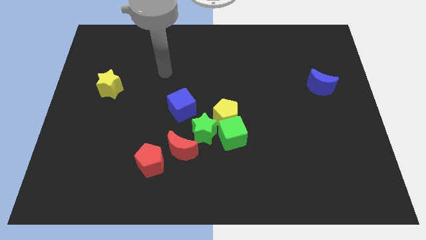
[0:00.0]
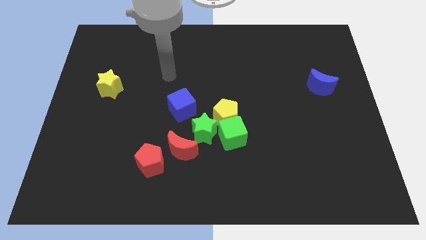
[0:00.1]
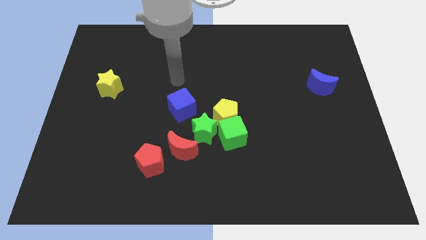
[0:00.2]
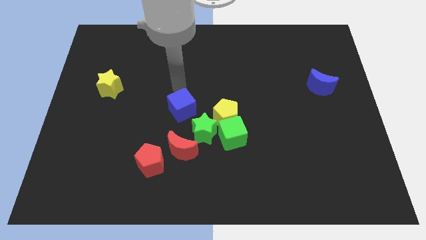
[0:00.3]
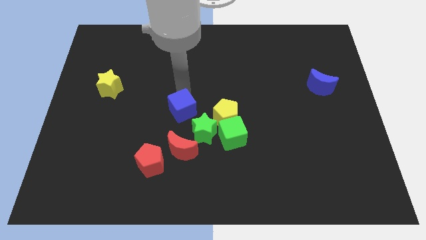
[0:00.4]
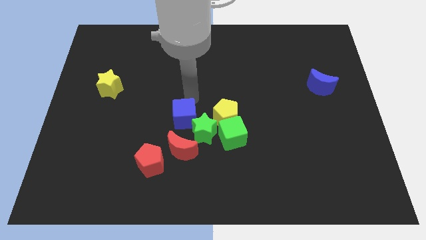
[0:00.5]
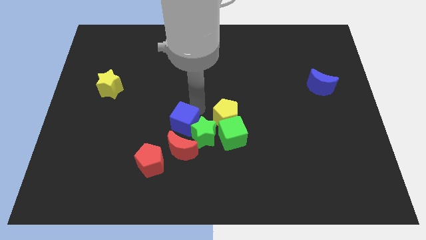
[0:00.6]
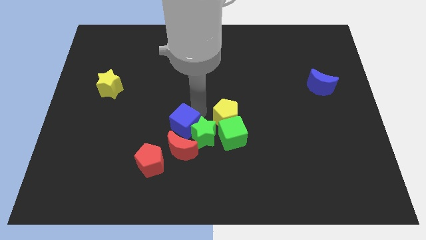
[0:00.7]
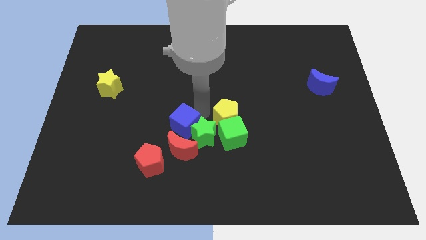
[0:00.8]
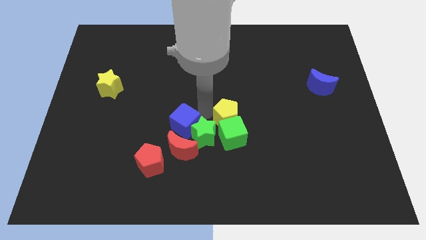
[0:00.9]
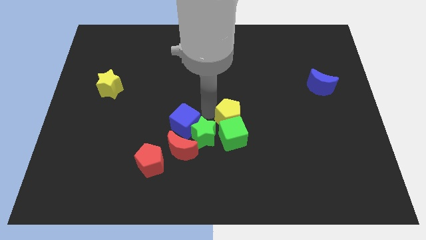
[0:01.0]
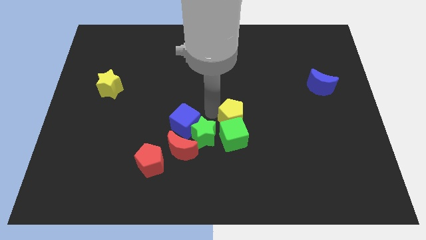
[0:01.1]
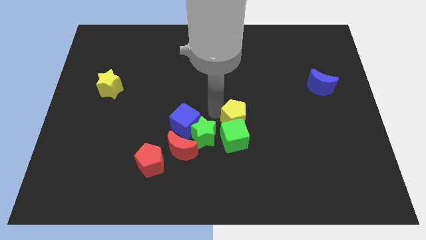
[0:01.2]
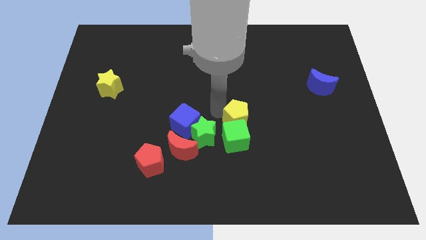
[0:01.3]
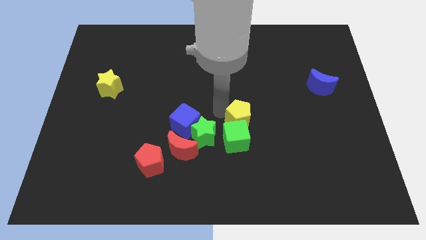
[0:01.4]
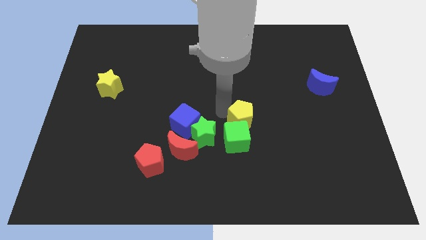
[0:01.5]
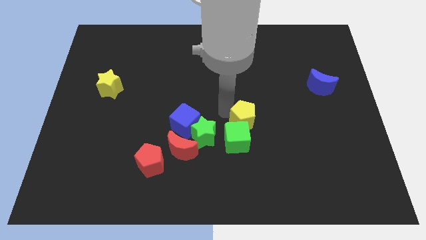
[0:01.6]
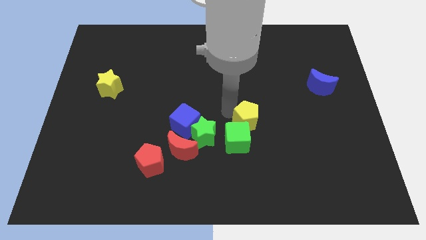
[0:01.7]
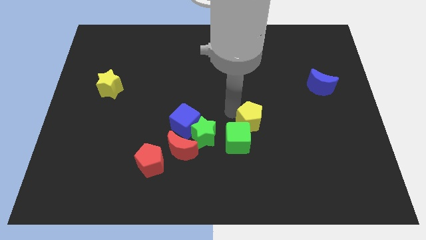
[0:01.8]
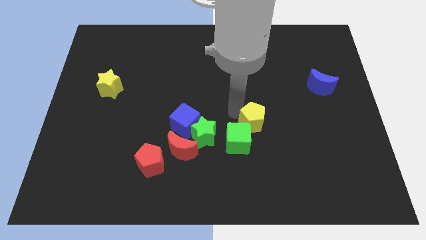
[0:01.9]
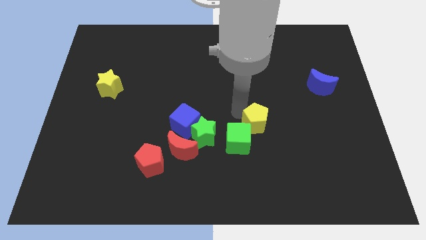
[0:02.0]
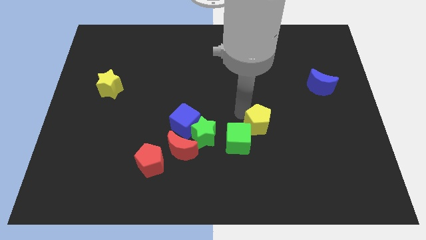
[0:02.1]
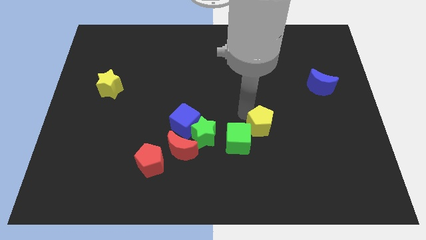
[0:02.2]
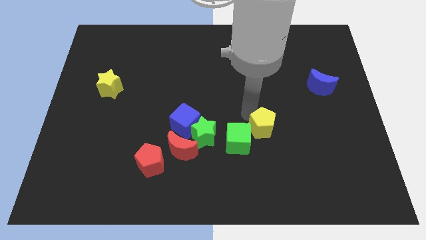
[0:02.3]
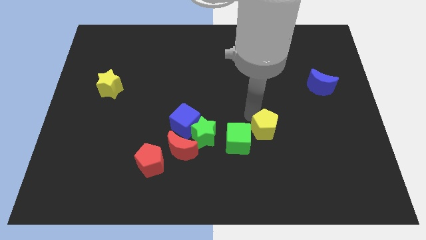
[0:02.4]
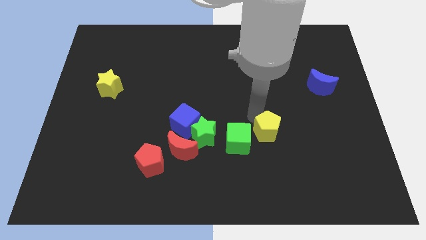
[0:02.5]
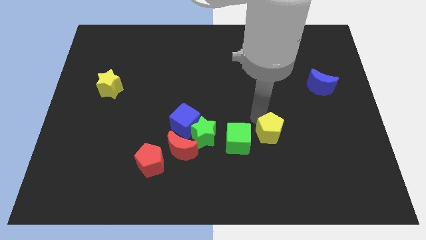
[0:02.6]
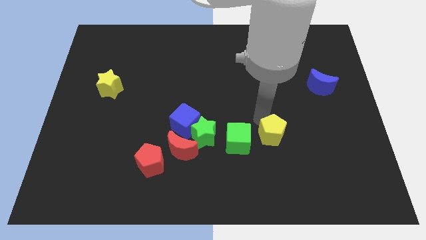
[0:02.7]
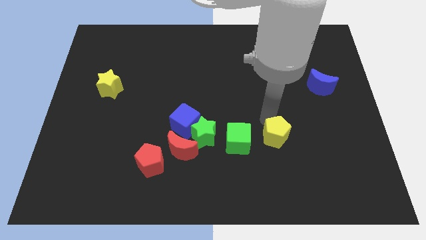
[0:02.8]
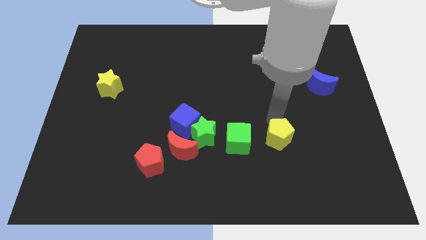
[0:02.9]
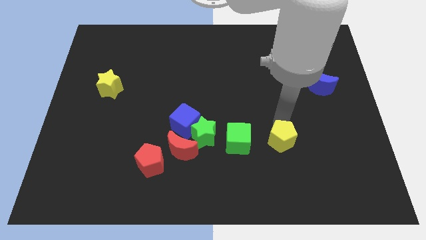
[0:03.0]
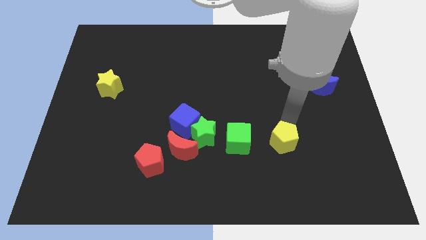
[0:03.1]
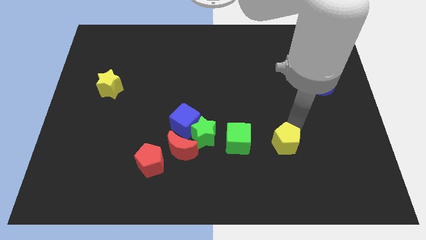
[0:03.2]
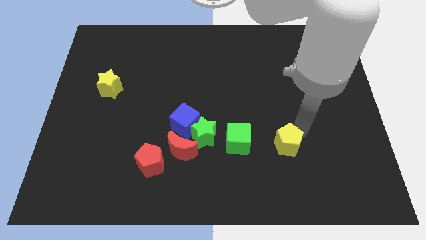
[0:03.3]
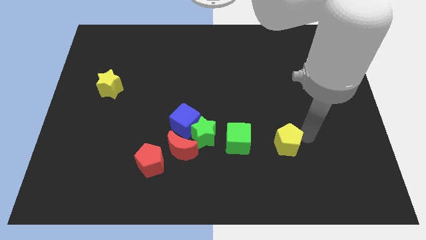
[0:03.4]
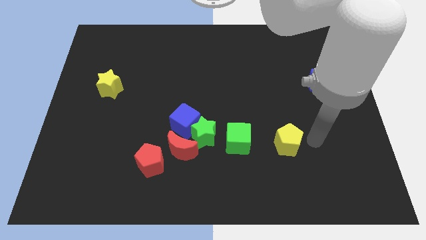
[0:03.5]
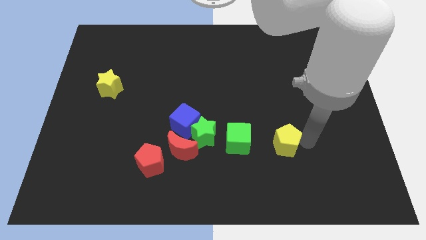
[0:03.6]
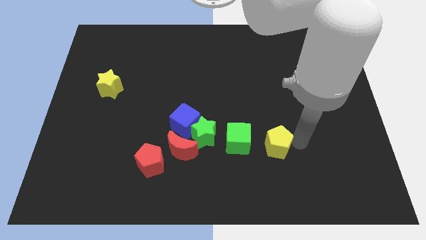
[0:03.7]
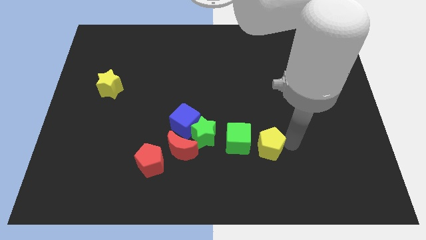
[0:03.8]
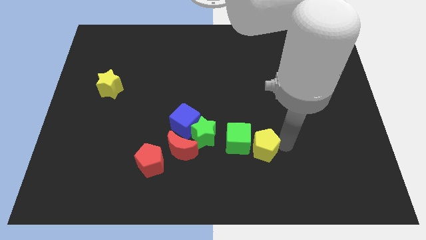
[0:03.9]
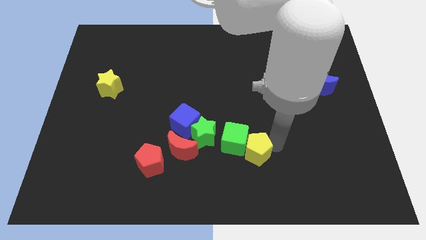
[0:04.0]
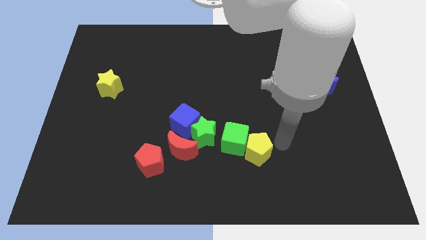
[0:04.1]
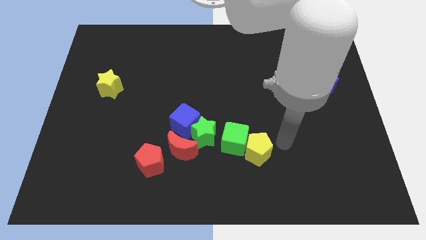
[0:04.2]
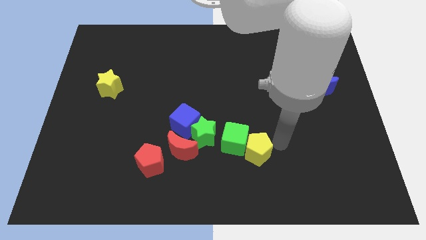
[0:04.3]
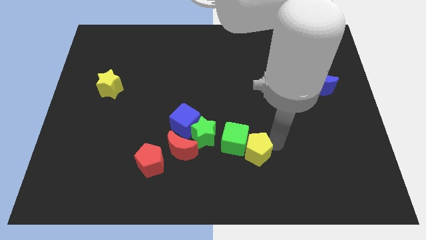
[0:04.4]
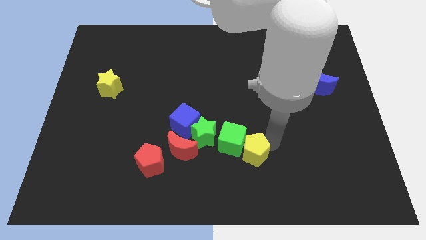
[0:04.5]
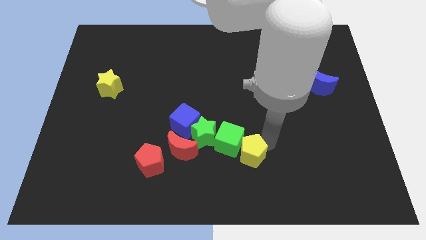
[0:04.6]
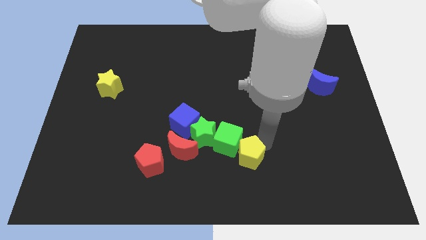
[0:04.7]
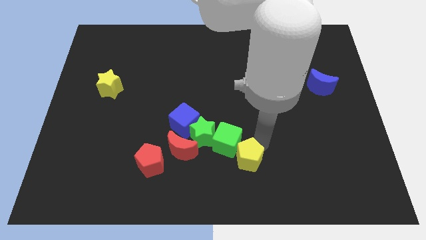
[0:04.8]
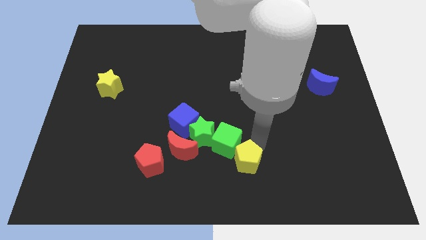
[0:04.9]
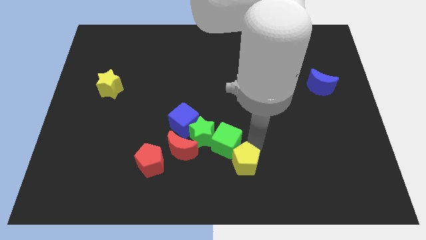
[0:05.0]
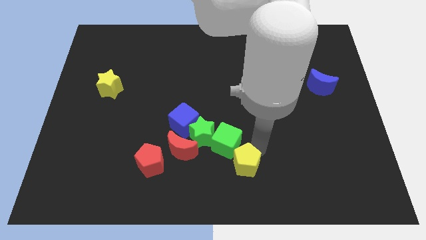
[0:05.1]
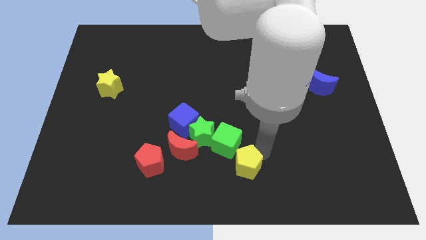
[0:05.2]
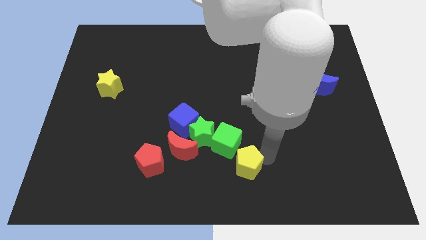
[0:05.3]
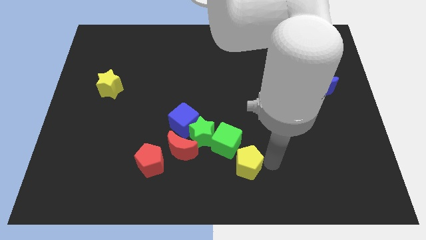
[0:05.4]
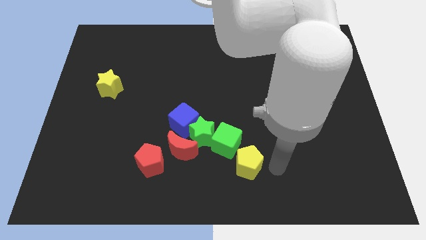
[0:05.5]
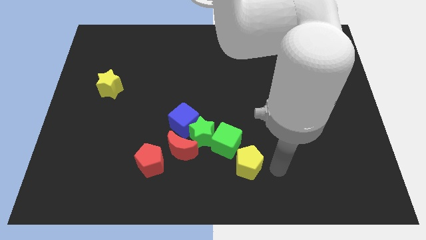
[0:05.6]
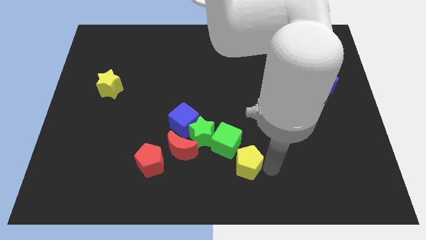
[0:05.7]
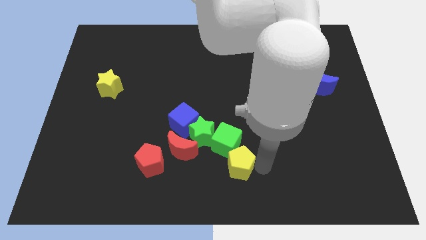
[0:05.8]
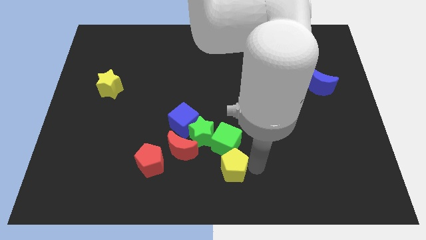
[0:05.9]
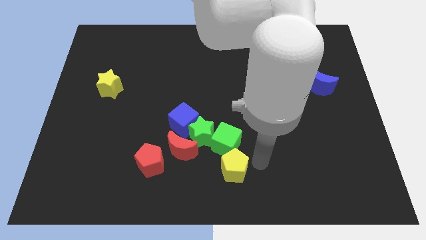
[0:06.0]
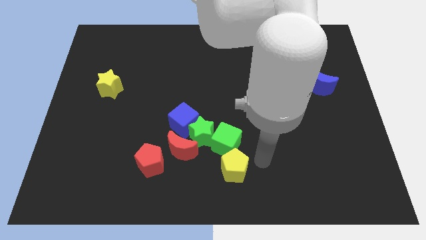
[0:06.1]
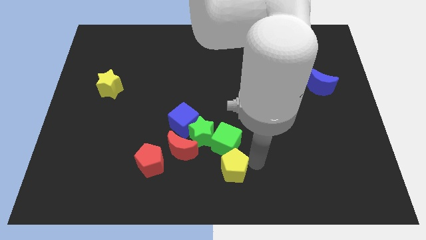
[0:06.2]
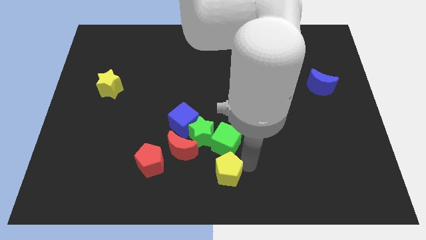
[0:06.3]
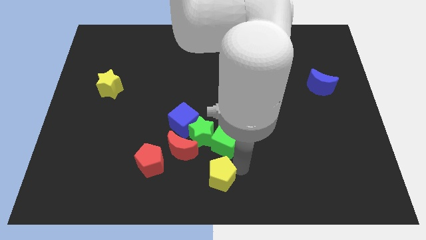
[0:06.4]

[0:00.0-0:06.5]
push the yellow pentagon to the bottom side of the green star
